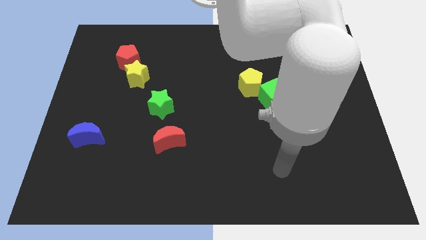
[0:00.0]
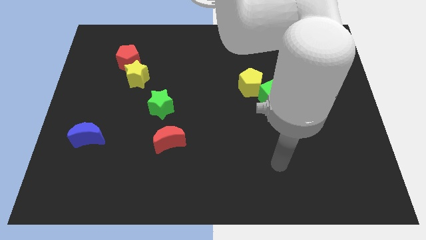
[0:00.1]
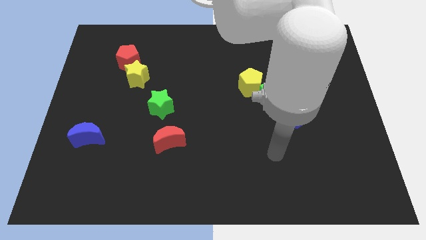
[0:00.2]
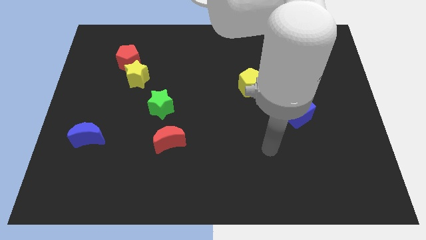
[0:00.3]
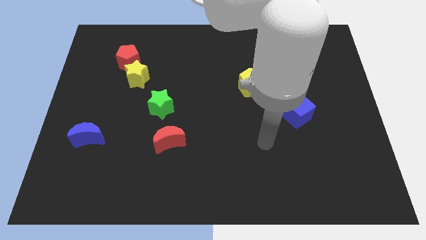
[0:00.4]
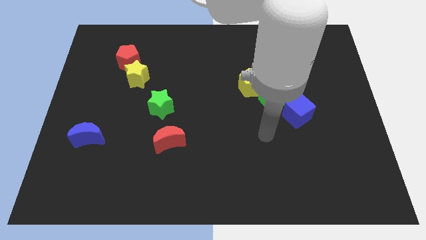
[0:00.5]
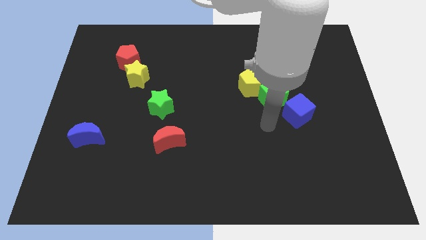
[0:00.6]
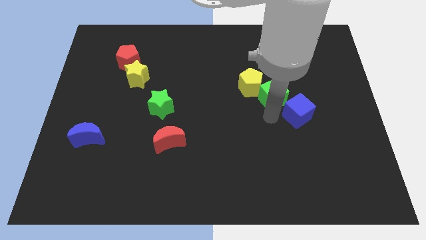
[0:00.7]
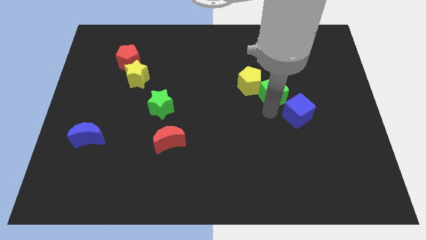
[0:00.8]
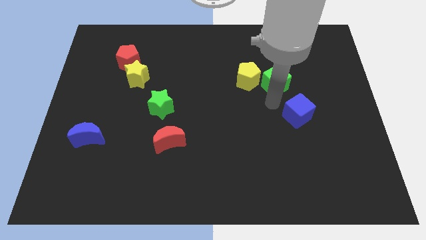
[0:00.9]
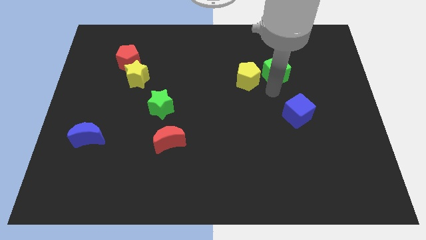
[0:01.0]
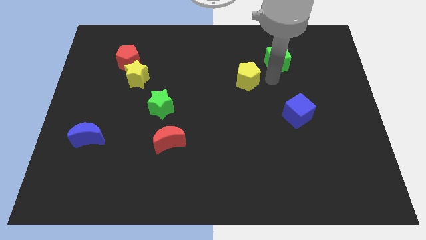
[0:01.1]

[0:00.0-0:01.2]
move the yellow pentagon away from the green cube

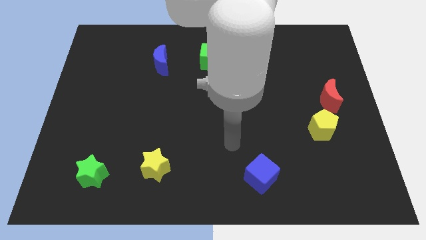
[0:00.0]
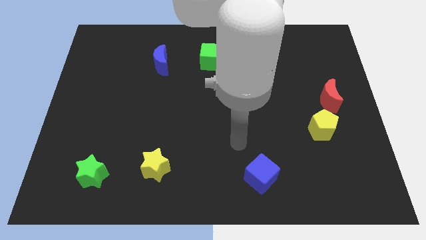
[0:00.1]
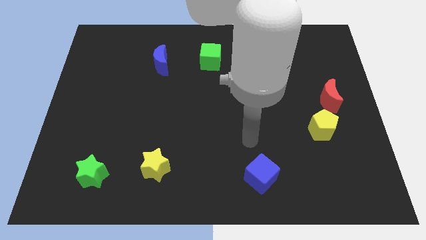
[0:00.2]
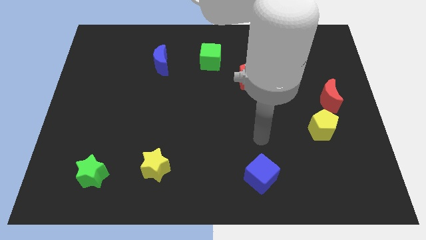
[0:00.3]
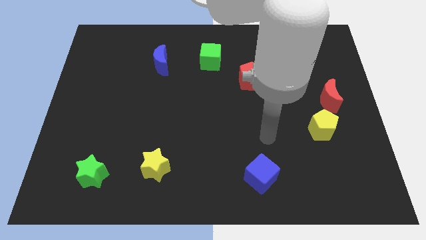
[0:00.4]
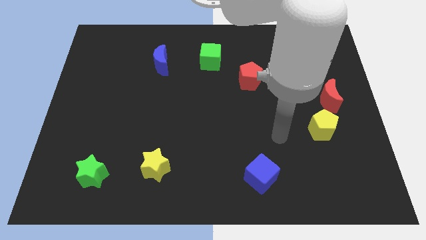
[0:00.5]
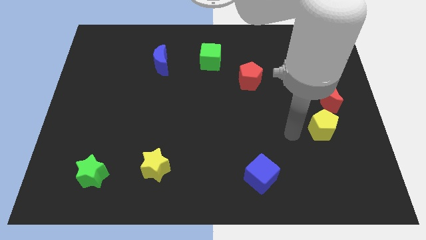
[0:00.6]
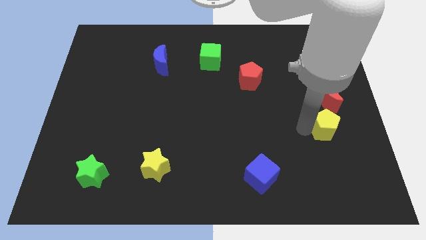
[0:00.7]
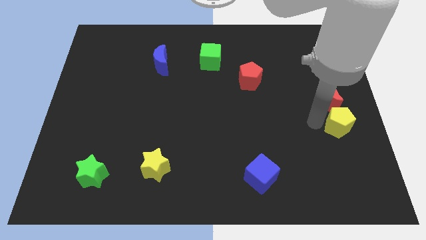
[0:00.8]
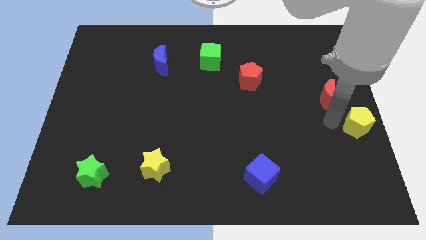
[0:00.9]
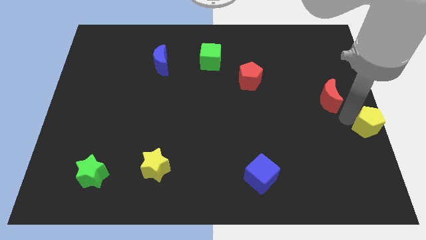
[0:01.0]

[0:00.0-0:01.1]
separate the red moon from the yellow pentagon

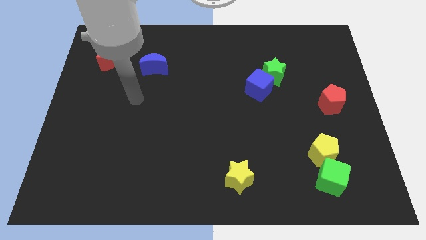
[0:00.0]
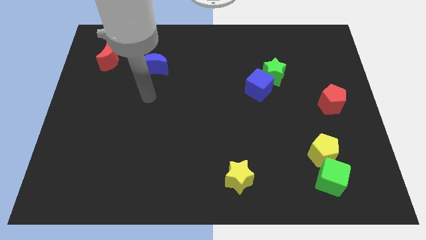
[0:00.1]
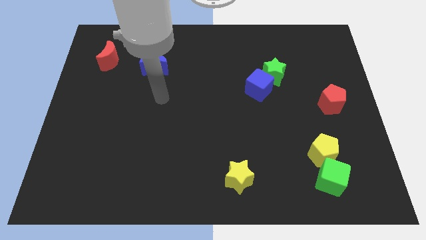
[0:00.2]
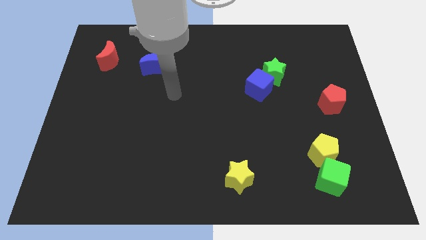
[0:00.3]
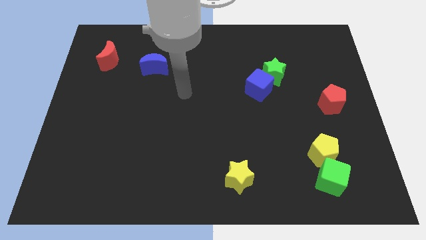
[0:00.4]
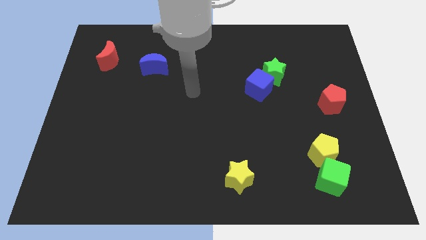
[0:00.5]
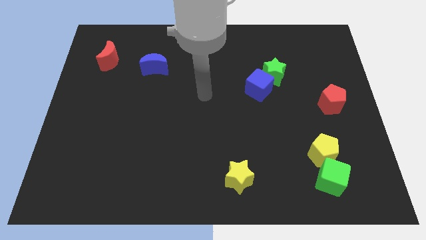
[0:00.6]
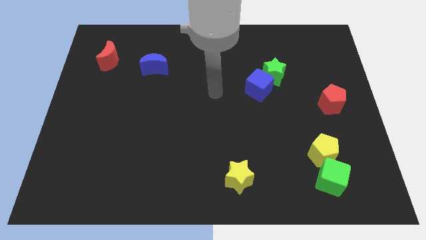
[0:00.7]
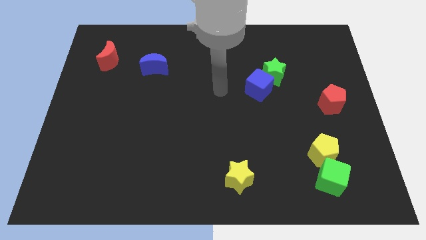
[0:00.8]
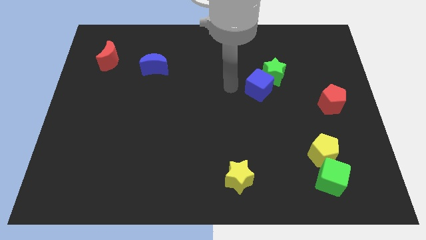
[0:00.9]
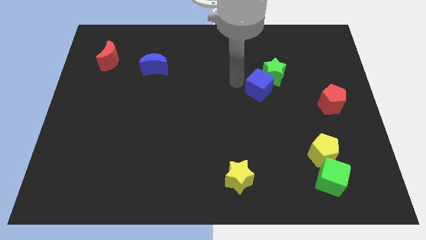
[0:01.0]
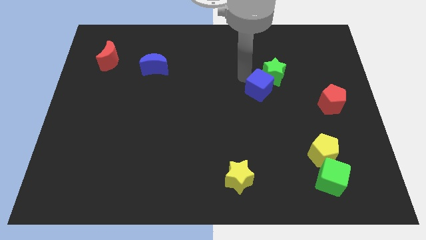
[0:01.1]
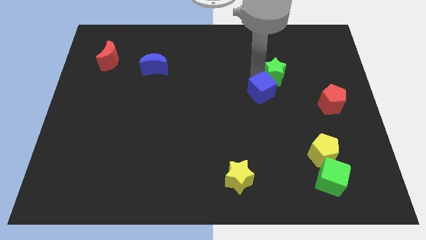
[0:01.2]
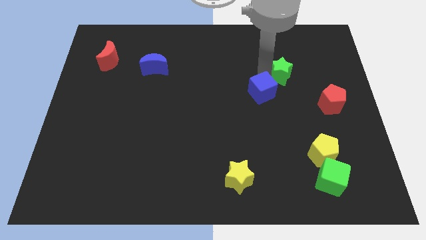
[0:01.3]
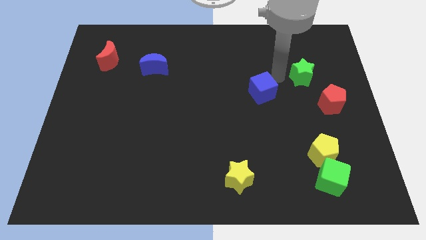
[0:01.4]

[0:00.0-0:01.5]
pull the blue cube apart from the green star

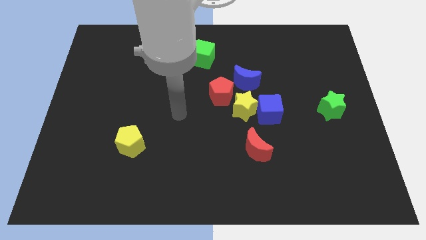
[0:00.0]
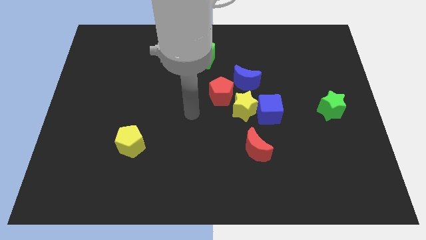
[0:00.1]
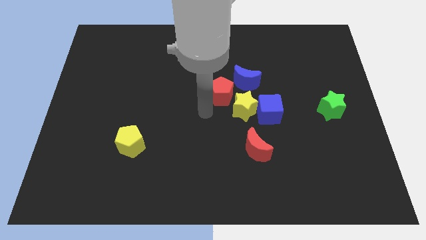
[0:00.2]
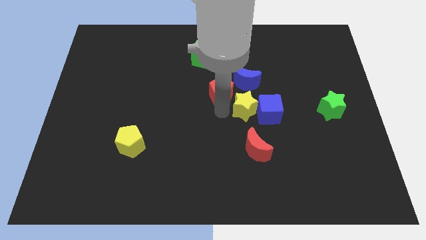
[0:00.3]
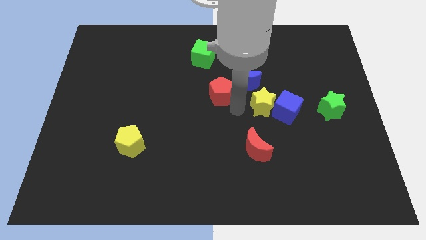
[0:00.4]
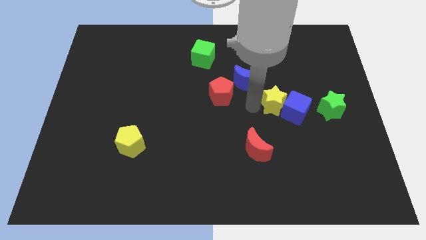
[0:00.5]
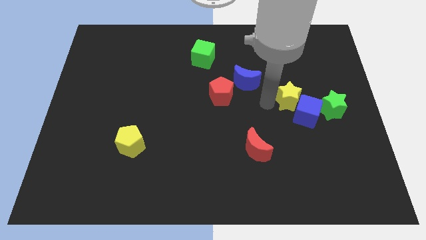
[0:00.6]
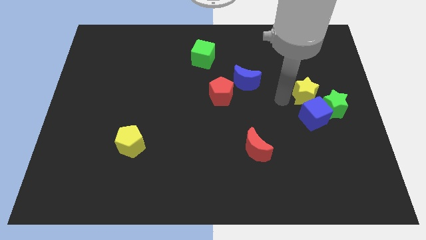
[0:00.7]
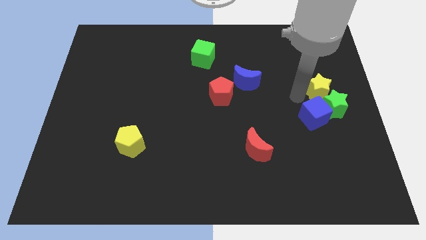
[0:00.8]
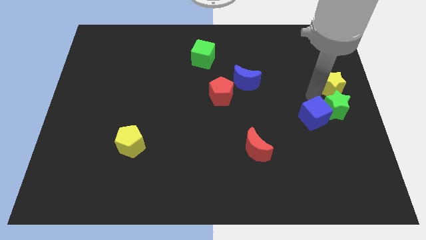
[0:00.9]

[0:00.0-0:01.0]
separate the blue cube from the yellow star

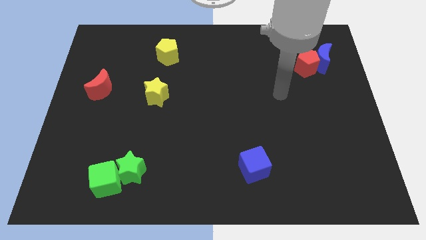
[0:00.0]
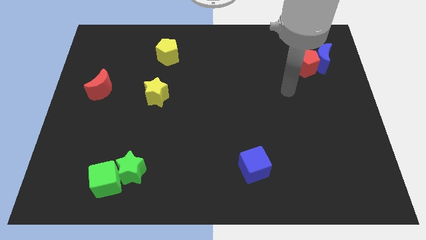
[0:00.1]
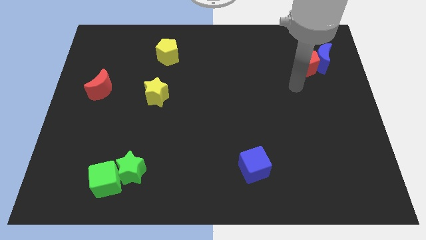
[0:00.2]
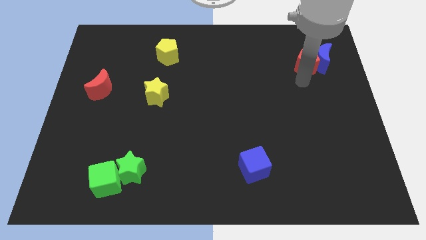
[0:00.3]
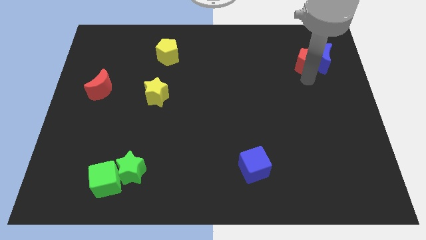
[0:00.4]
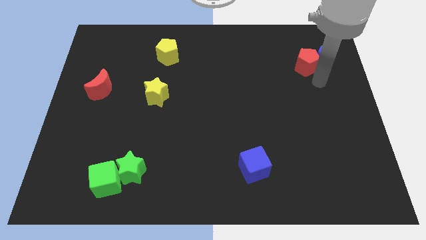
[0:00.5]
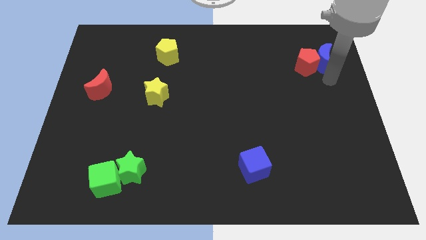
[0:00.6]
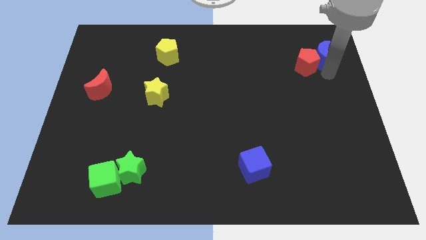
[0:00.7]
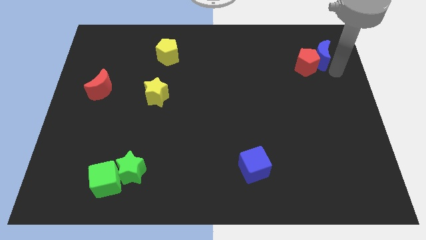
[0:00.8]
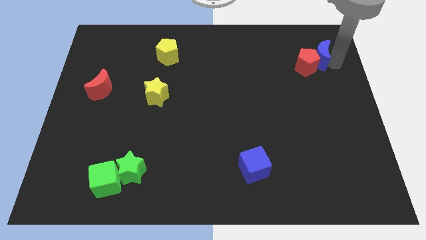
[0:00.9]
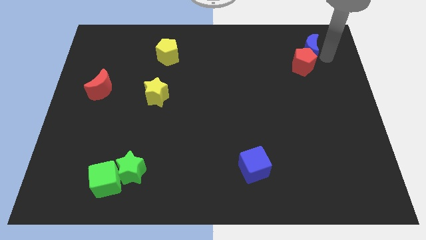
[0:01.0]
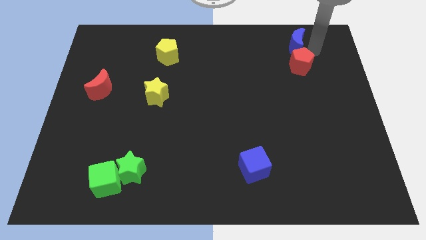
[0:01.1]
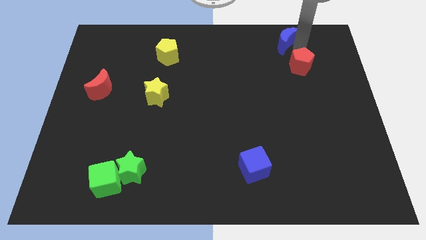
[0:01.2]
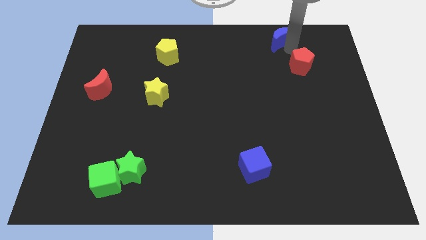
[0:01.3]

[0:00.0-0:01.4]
move the red pentagon away from the blue moon

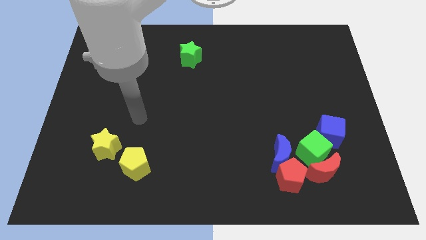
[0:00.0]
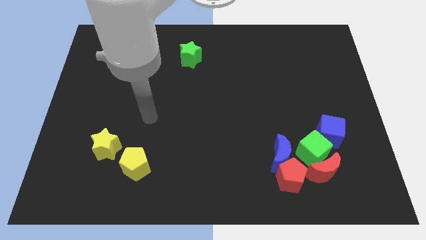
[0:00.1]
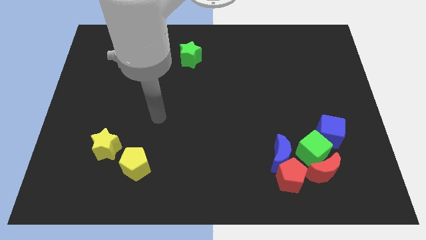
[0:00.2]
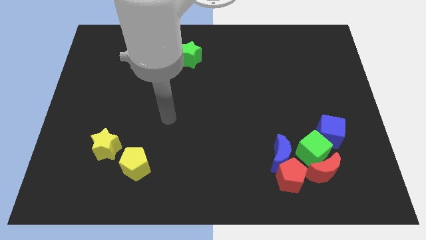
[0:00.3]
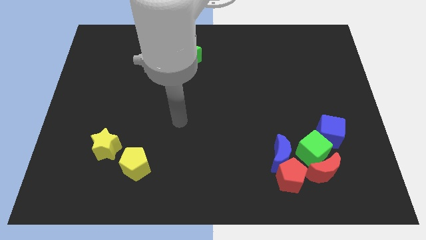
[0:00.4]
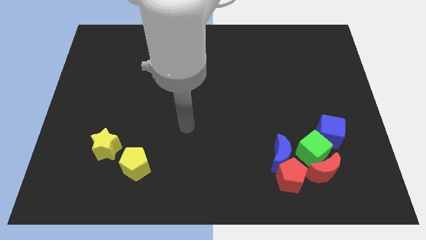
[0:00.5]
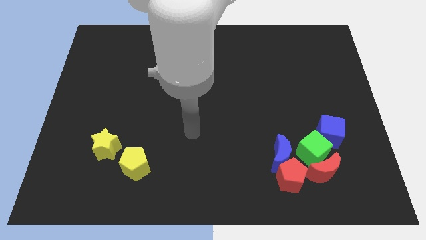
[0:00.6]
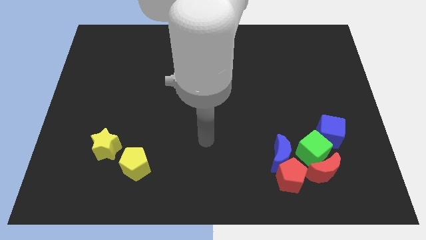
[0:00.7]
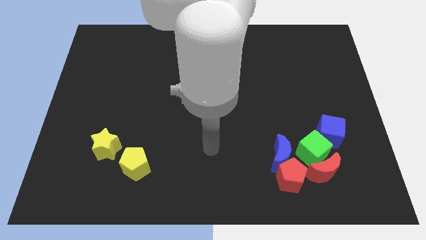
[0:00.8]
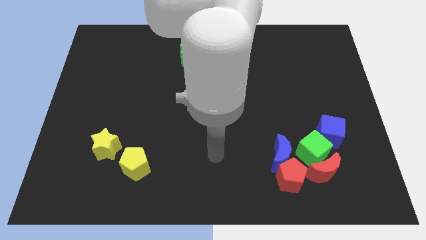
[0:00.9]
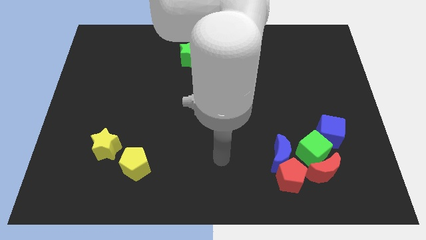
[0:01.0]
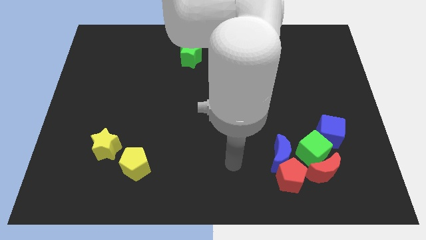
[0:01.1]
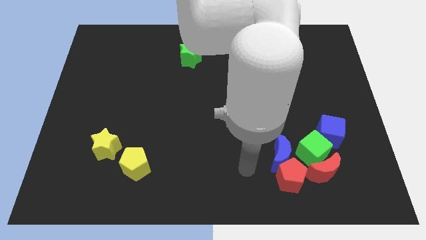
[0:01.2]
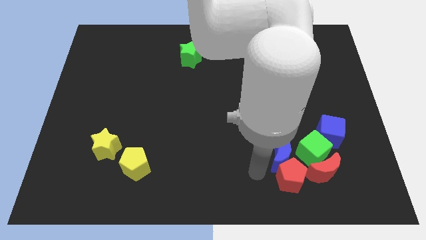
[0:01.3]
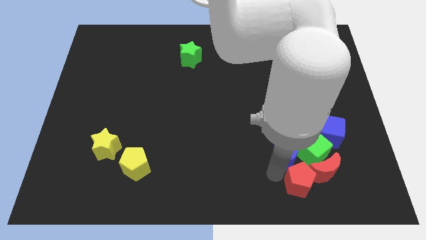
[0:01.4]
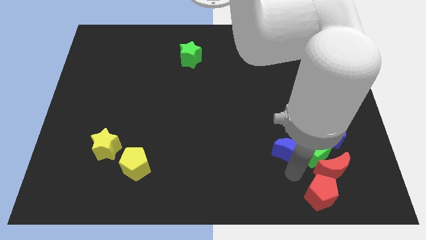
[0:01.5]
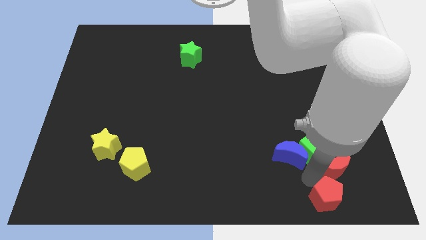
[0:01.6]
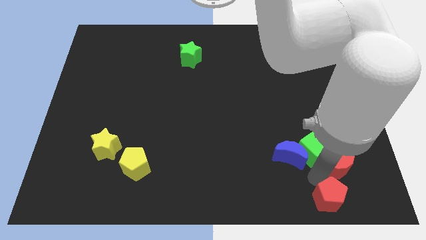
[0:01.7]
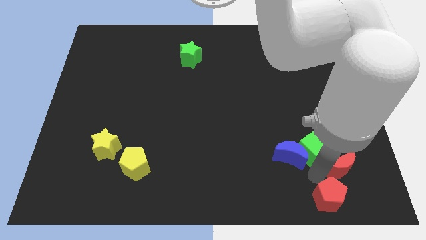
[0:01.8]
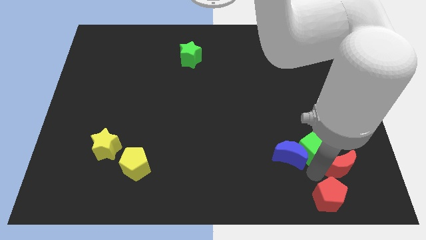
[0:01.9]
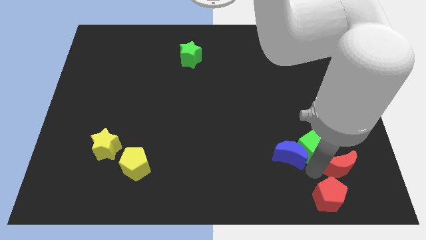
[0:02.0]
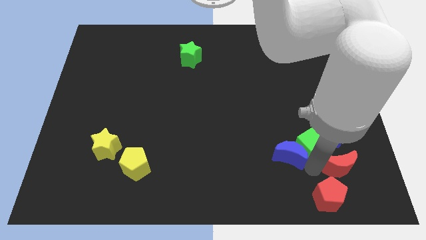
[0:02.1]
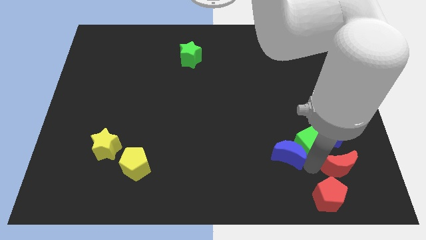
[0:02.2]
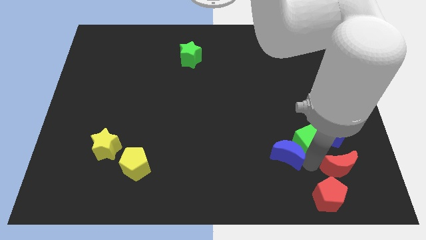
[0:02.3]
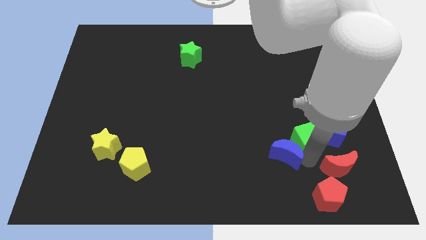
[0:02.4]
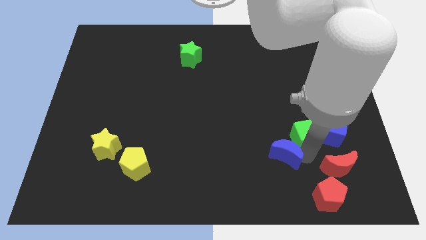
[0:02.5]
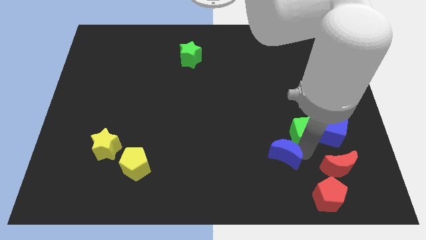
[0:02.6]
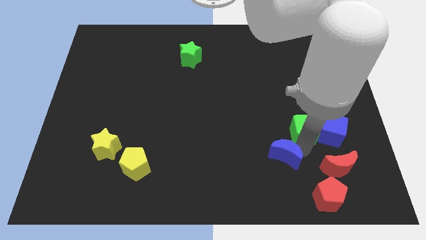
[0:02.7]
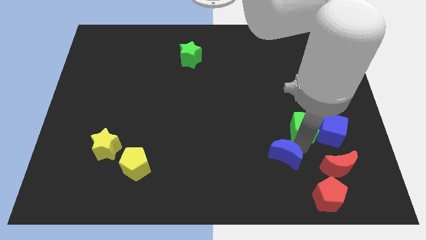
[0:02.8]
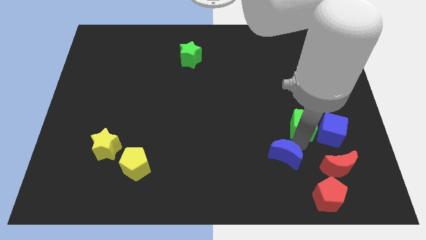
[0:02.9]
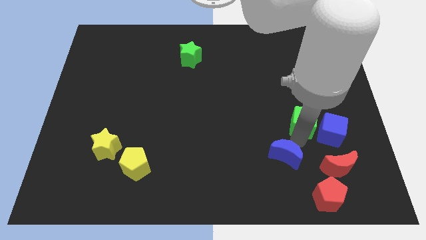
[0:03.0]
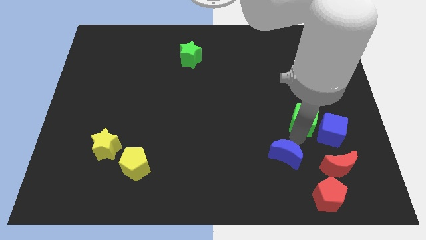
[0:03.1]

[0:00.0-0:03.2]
separate the green cube from the group
